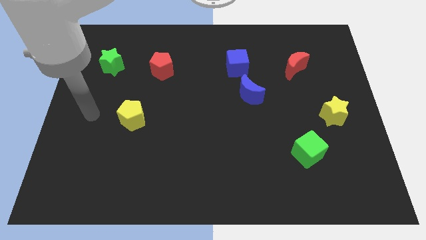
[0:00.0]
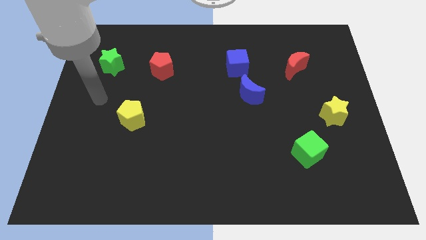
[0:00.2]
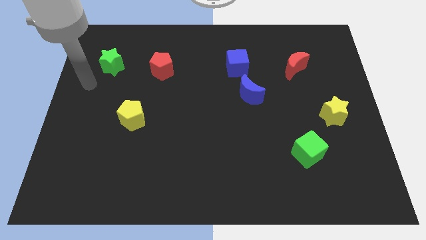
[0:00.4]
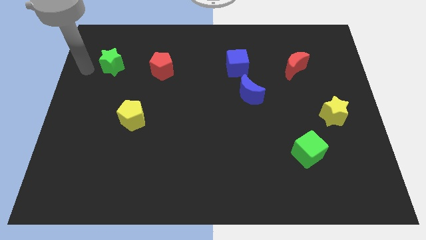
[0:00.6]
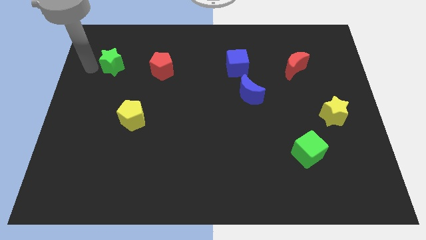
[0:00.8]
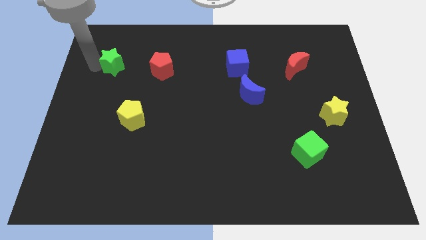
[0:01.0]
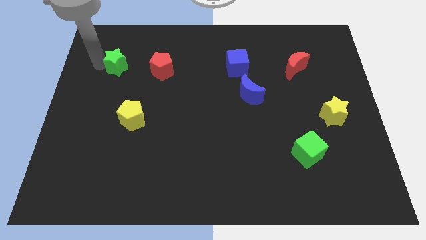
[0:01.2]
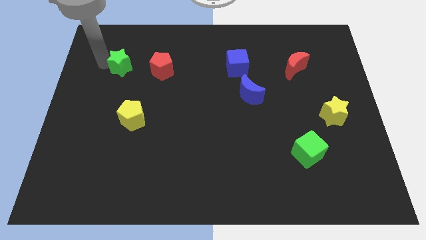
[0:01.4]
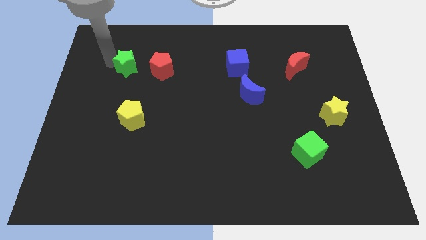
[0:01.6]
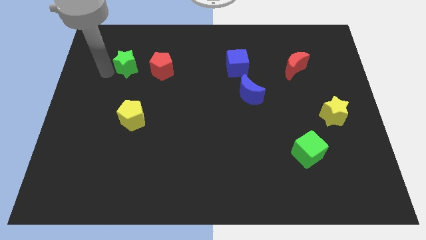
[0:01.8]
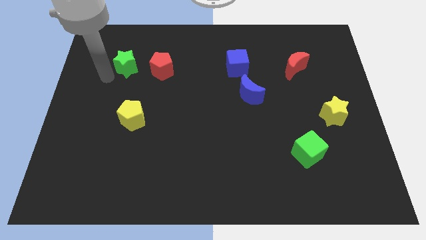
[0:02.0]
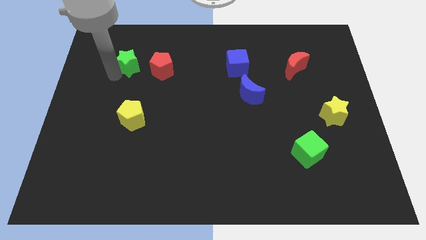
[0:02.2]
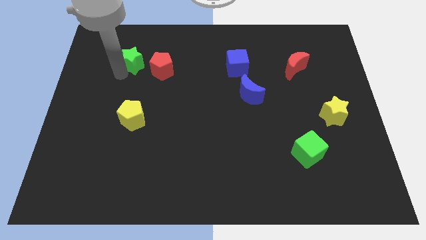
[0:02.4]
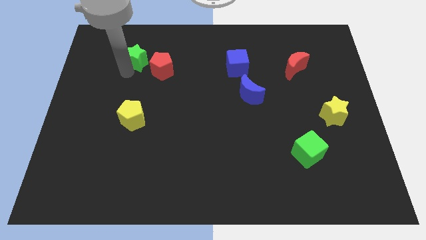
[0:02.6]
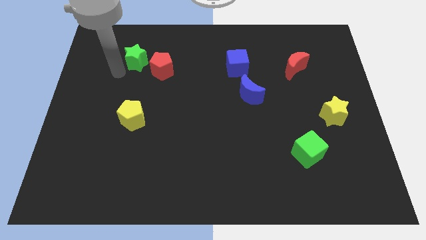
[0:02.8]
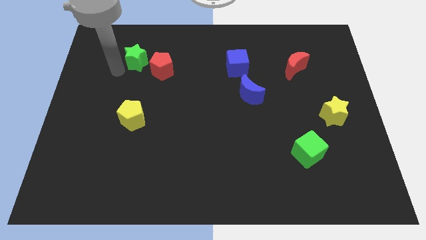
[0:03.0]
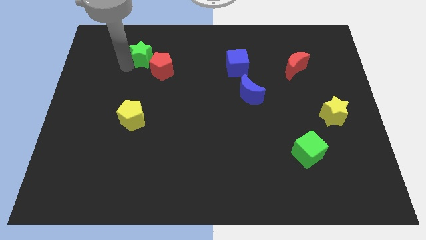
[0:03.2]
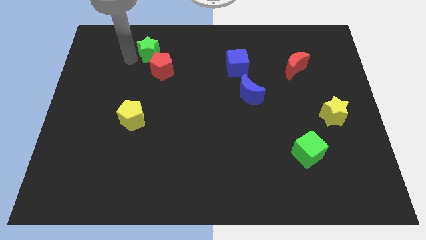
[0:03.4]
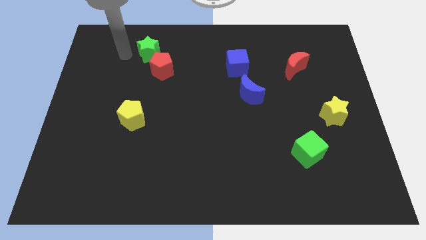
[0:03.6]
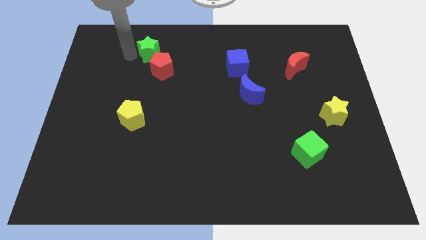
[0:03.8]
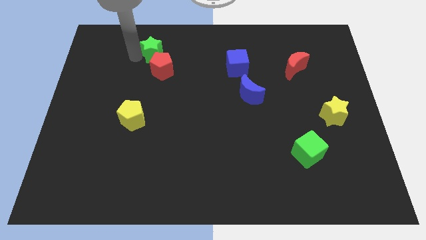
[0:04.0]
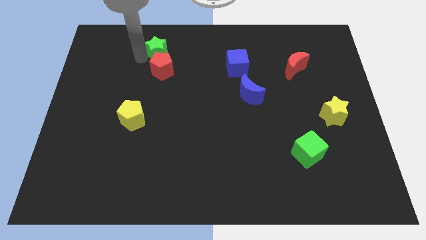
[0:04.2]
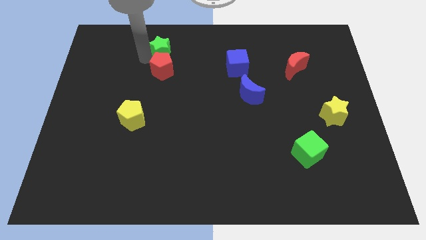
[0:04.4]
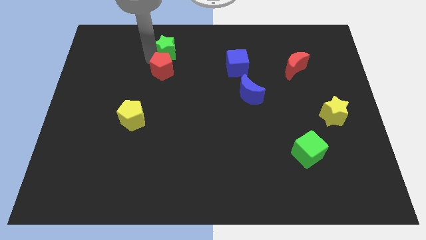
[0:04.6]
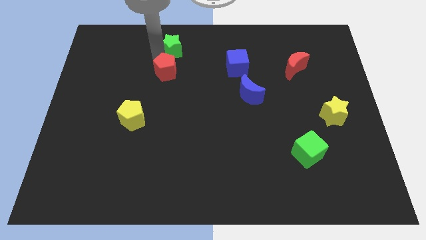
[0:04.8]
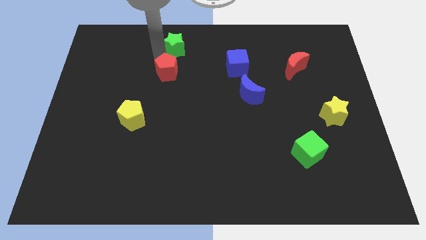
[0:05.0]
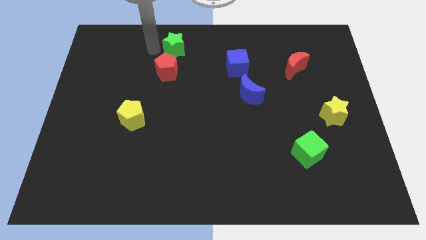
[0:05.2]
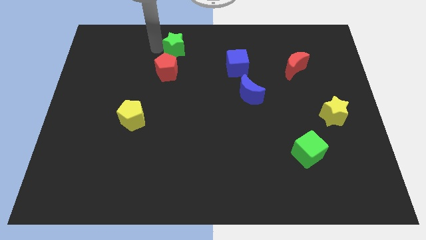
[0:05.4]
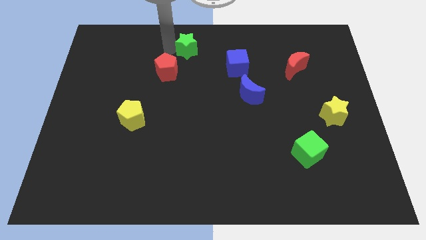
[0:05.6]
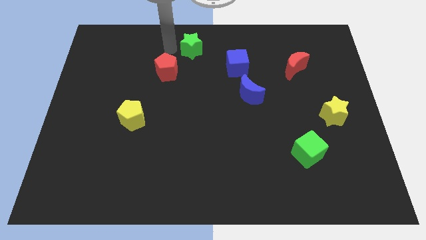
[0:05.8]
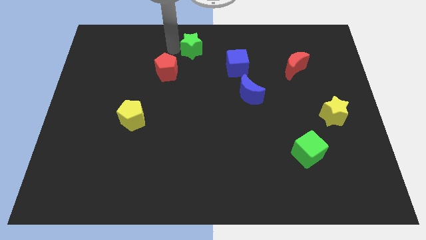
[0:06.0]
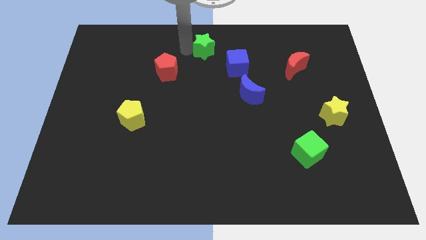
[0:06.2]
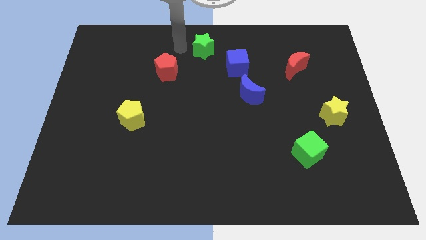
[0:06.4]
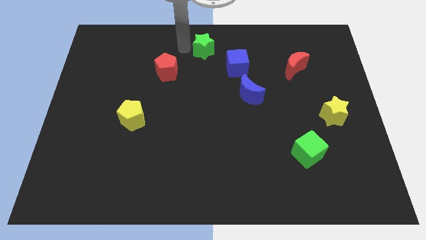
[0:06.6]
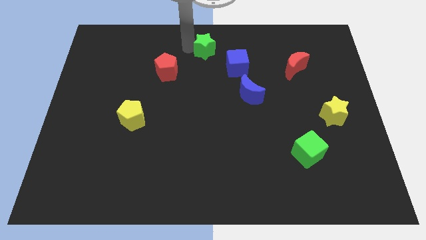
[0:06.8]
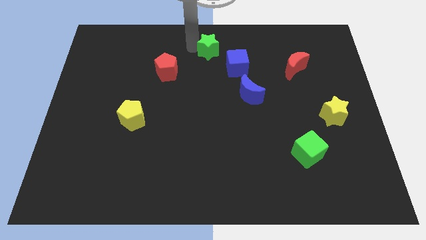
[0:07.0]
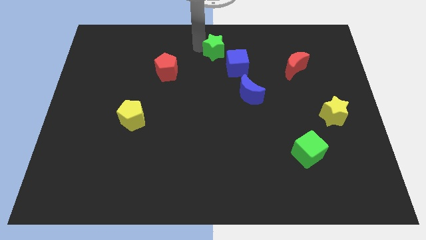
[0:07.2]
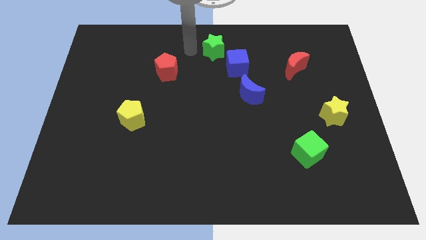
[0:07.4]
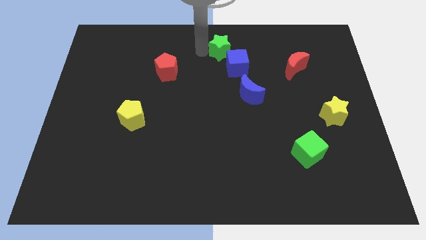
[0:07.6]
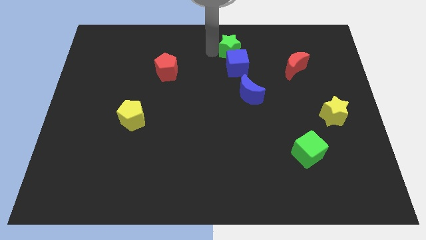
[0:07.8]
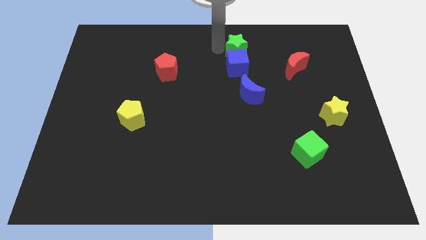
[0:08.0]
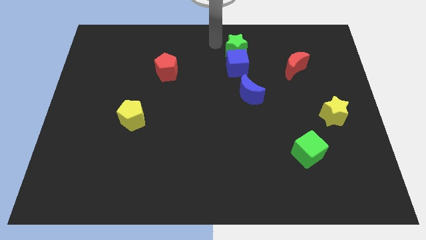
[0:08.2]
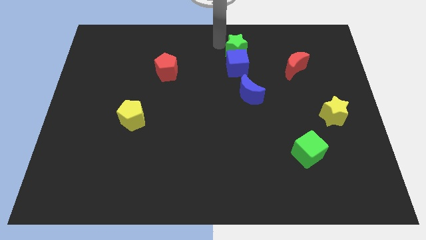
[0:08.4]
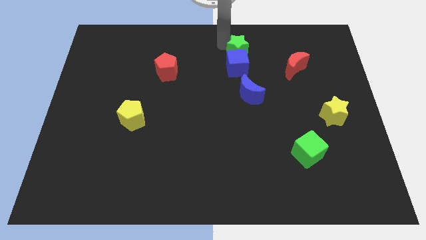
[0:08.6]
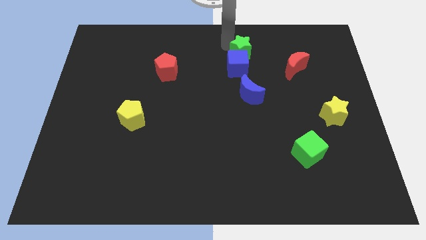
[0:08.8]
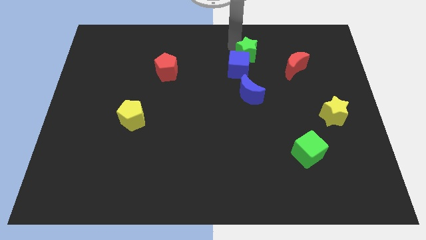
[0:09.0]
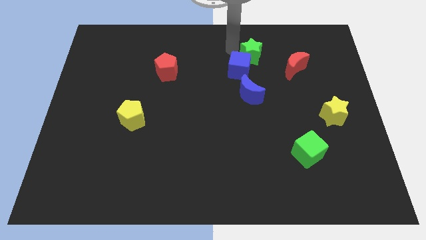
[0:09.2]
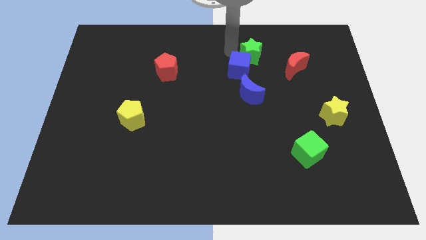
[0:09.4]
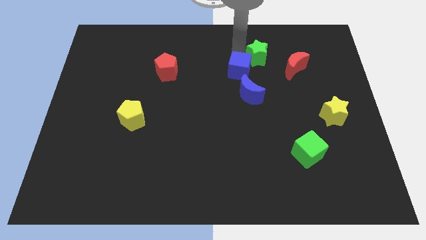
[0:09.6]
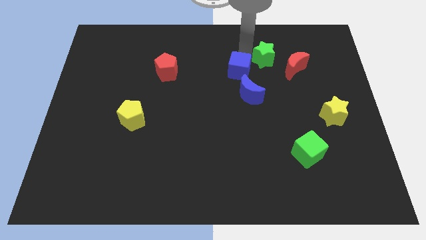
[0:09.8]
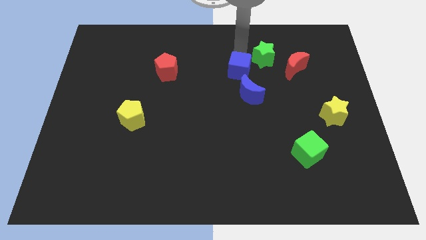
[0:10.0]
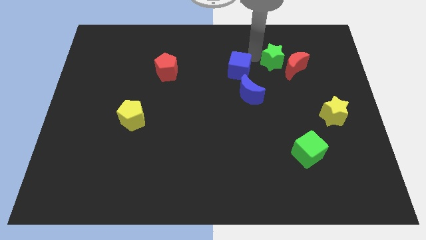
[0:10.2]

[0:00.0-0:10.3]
slide the green star to the red moon
